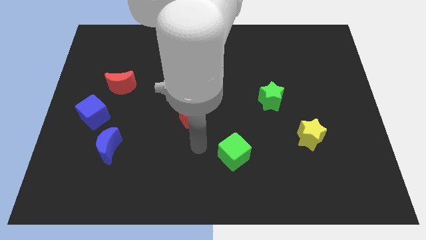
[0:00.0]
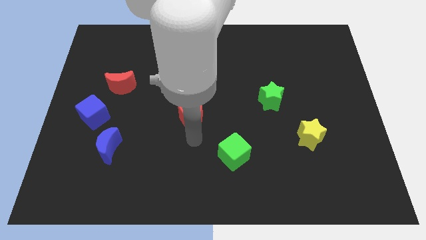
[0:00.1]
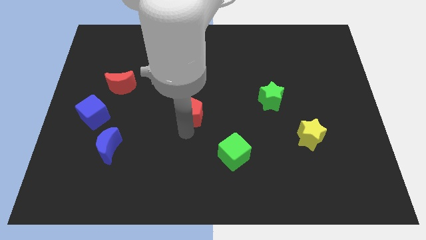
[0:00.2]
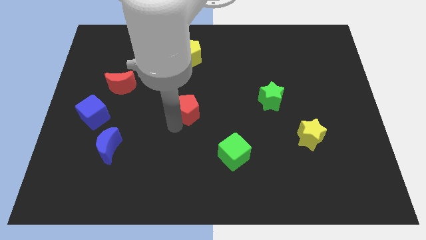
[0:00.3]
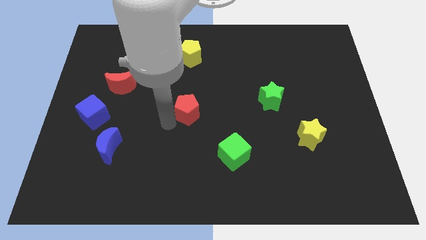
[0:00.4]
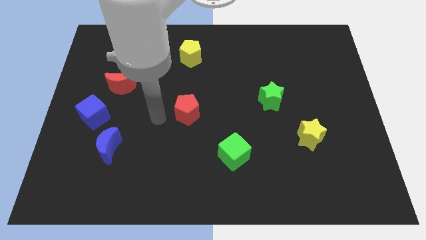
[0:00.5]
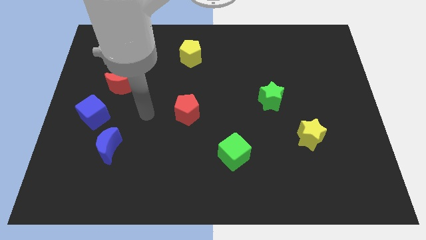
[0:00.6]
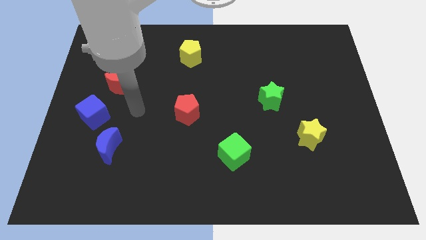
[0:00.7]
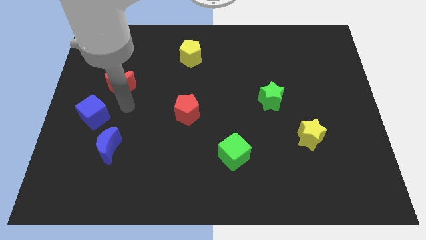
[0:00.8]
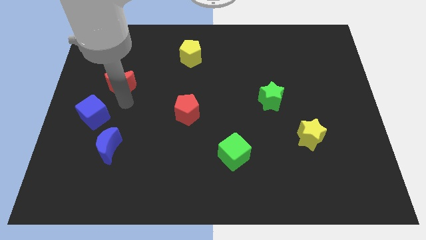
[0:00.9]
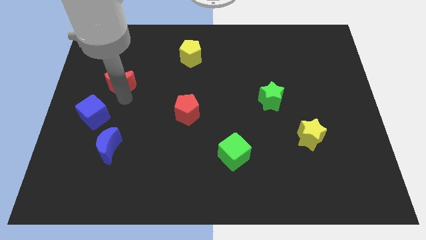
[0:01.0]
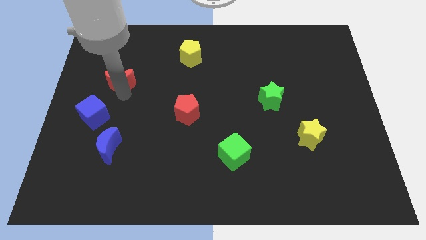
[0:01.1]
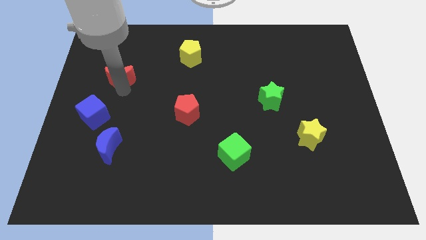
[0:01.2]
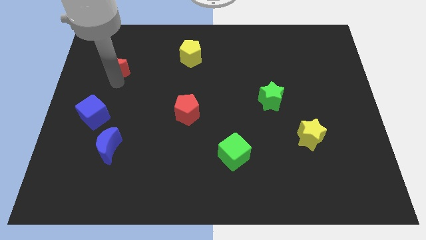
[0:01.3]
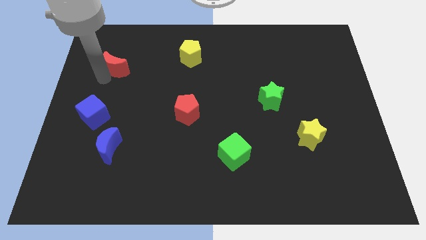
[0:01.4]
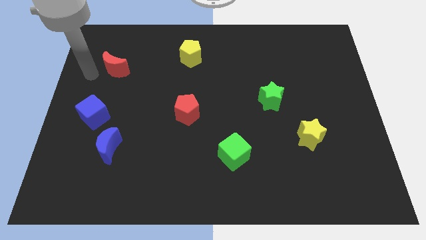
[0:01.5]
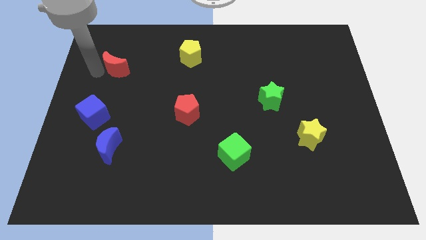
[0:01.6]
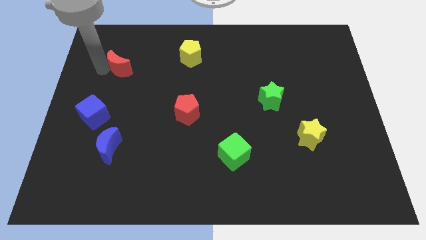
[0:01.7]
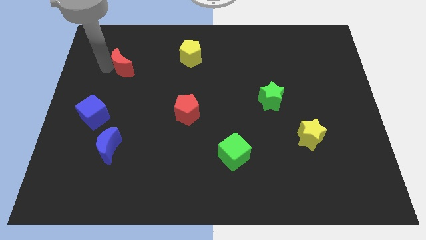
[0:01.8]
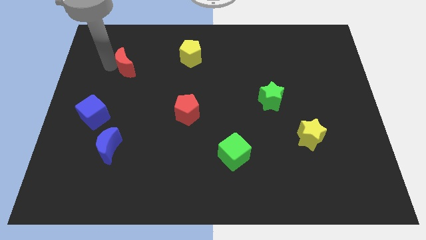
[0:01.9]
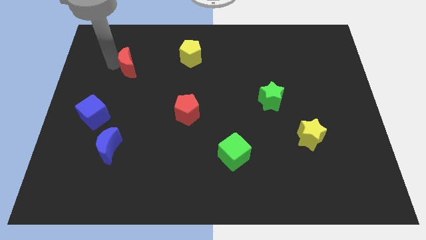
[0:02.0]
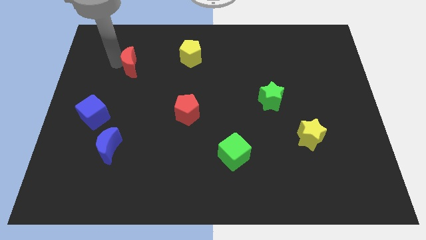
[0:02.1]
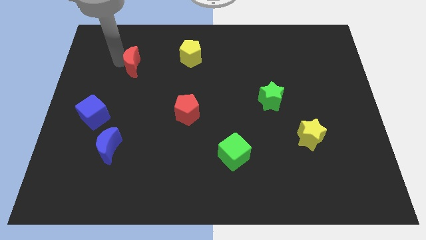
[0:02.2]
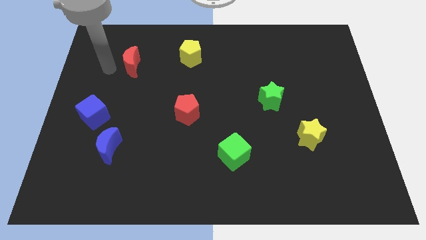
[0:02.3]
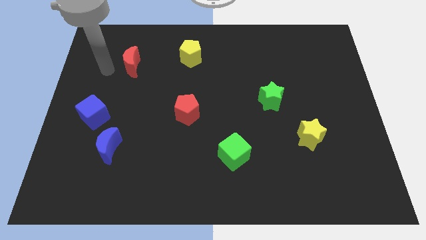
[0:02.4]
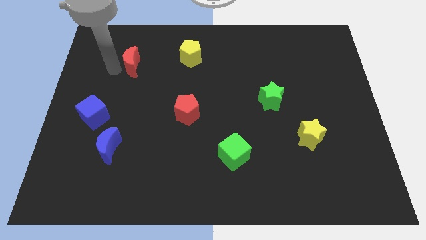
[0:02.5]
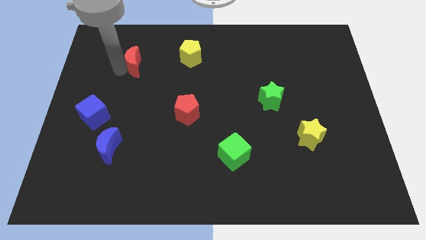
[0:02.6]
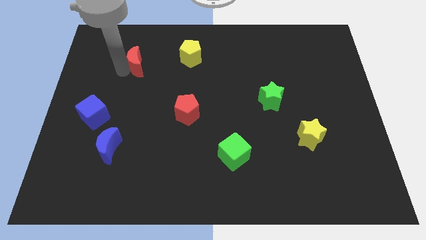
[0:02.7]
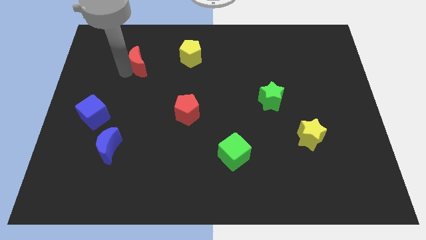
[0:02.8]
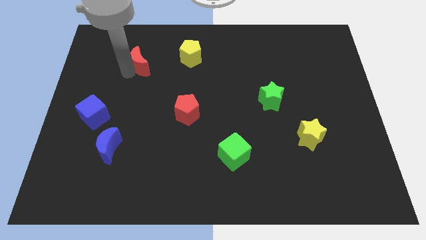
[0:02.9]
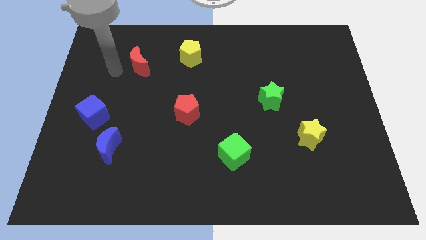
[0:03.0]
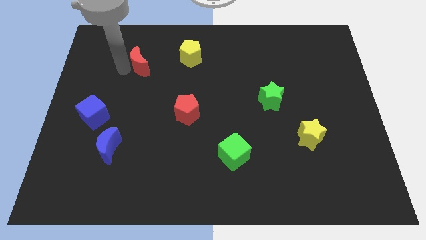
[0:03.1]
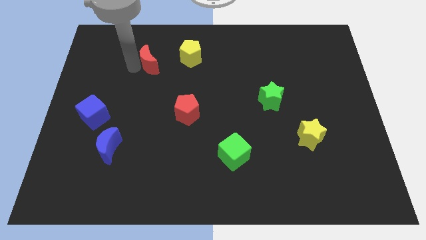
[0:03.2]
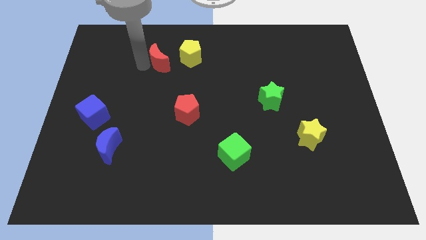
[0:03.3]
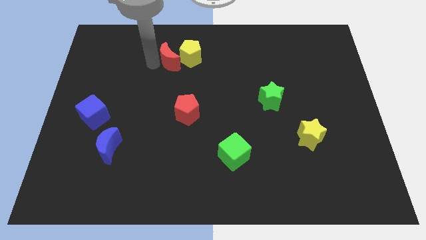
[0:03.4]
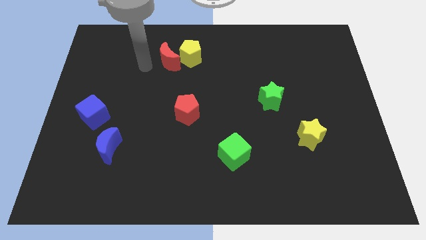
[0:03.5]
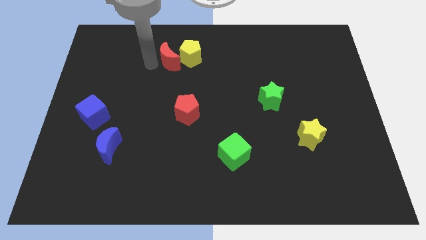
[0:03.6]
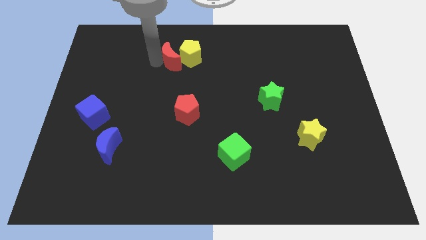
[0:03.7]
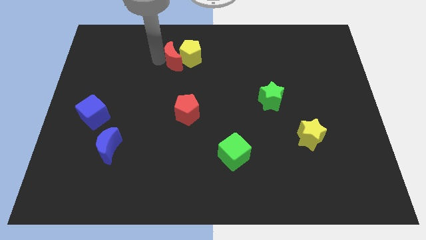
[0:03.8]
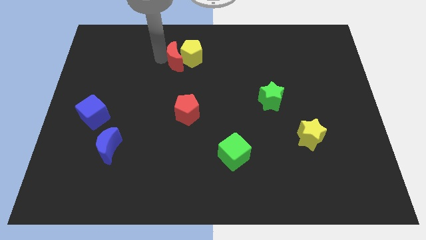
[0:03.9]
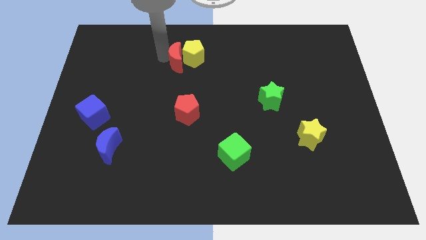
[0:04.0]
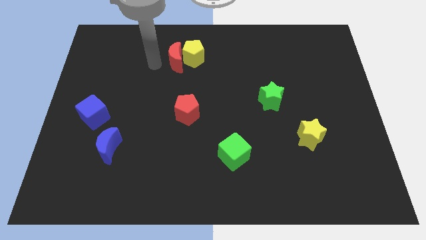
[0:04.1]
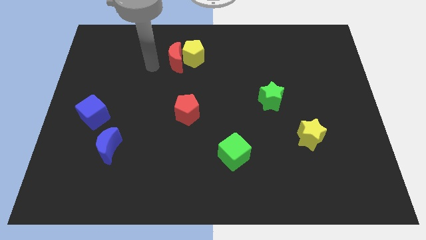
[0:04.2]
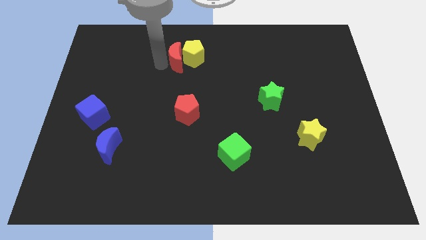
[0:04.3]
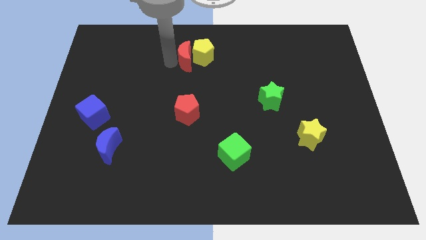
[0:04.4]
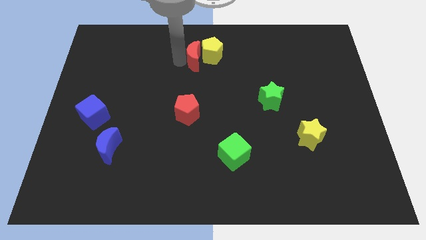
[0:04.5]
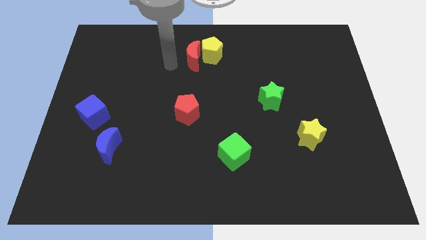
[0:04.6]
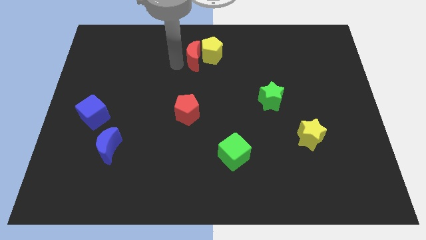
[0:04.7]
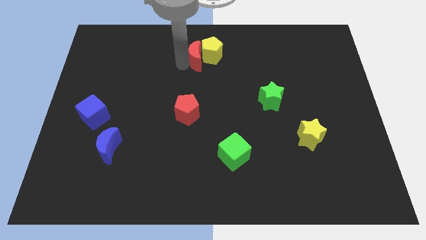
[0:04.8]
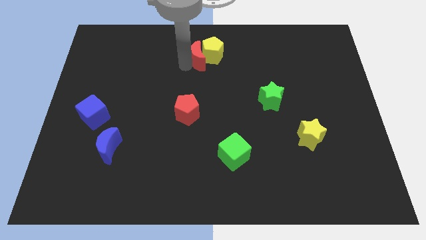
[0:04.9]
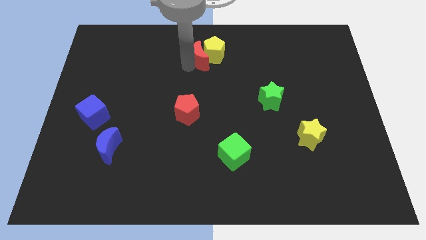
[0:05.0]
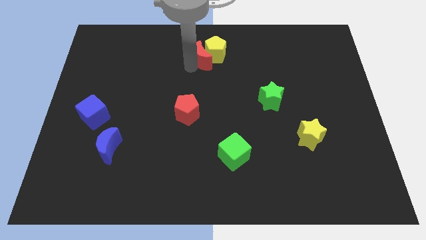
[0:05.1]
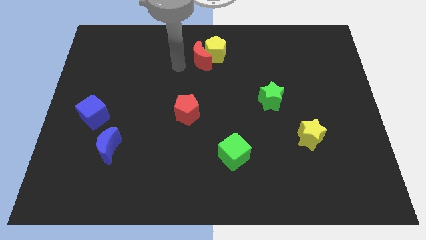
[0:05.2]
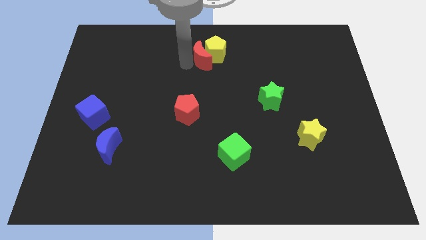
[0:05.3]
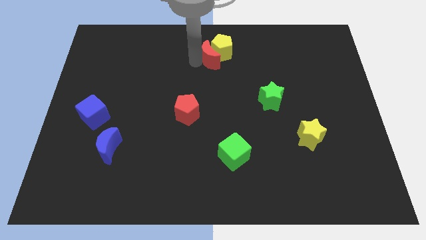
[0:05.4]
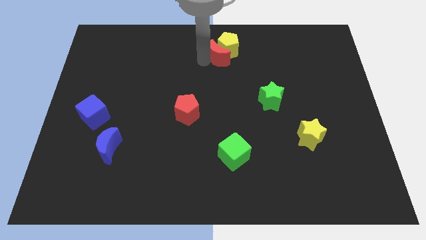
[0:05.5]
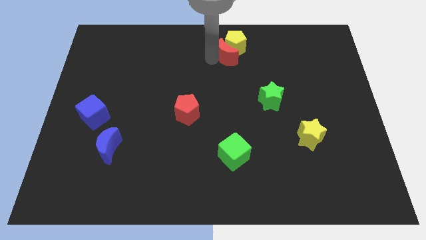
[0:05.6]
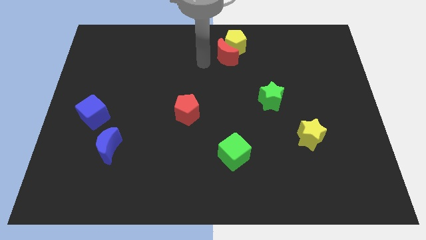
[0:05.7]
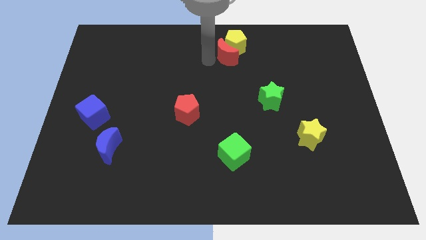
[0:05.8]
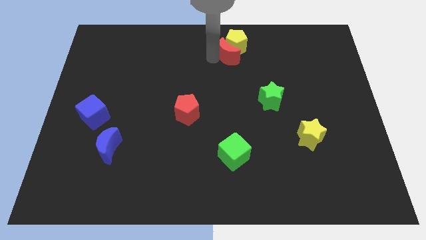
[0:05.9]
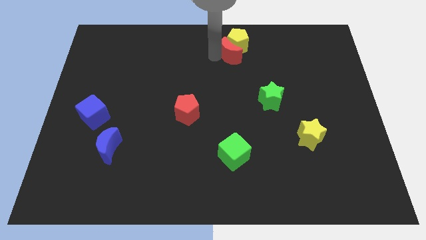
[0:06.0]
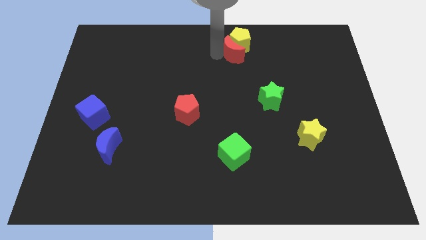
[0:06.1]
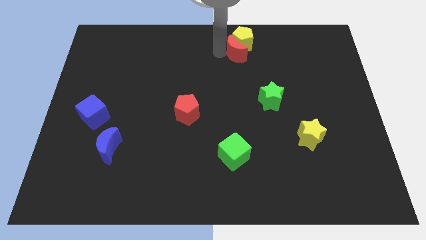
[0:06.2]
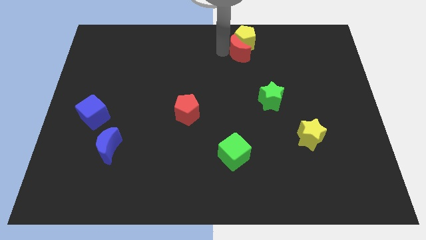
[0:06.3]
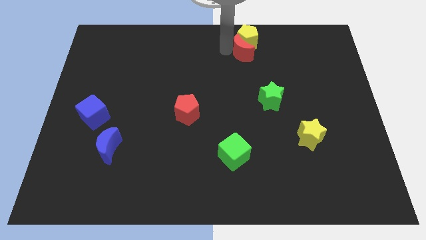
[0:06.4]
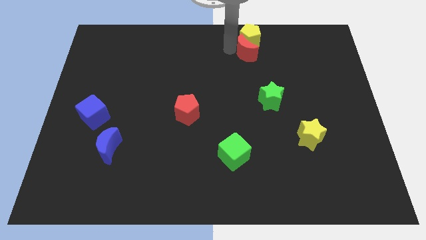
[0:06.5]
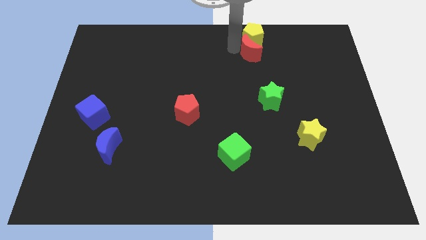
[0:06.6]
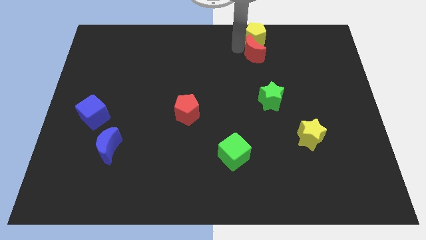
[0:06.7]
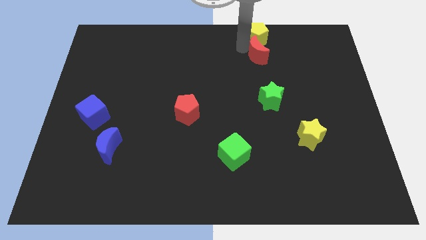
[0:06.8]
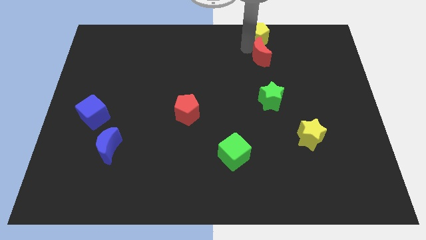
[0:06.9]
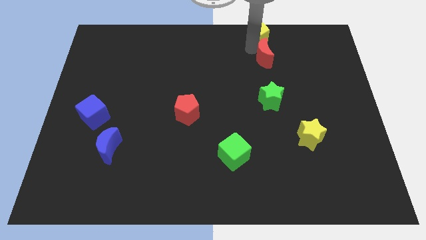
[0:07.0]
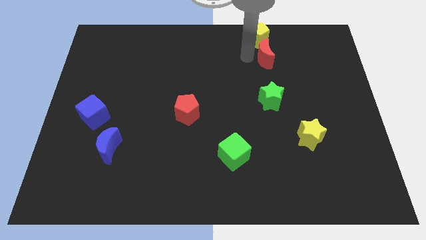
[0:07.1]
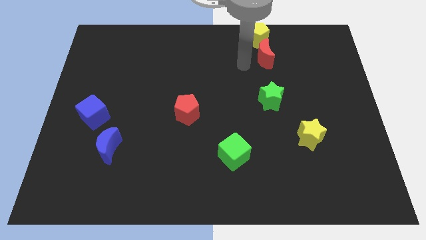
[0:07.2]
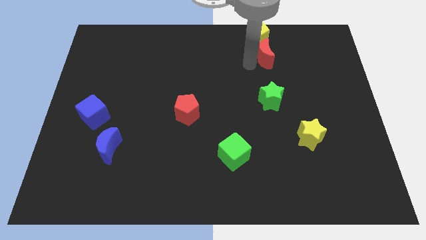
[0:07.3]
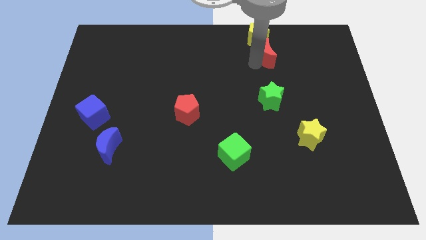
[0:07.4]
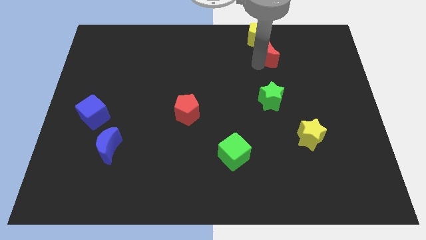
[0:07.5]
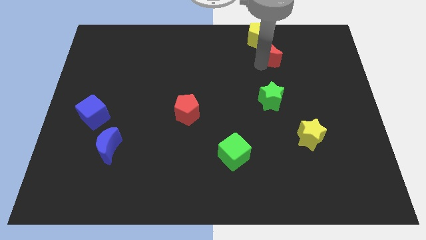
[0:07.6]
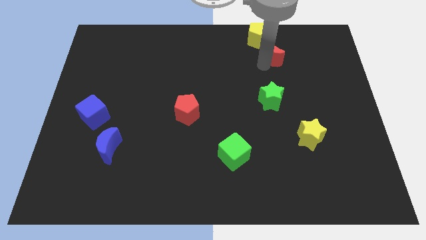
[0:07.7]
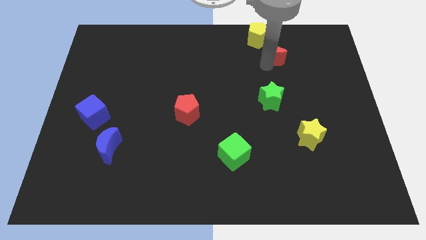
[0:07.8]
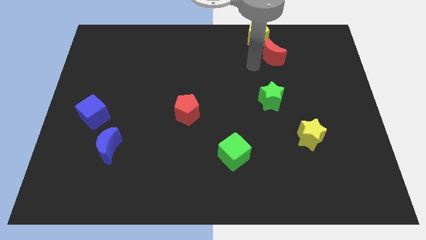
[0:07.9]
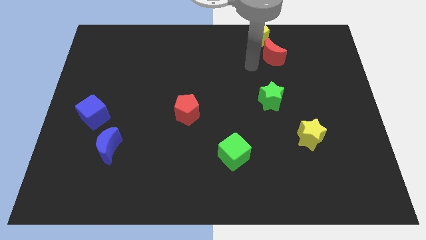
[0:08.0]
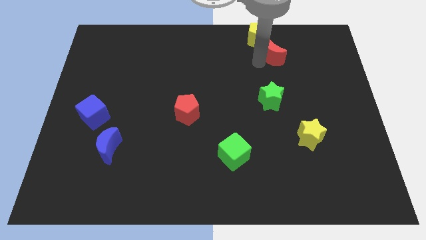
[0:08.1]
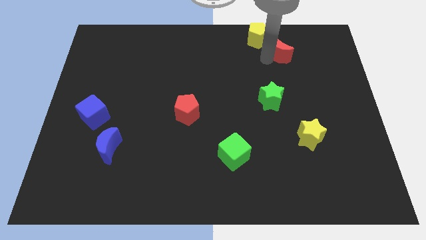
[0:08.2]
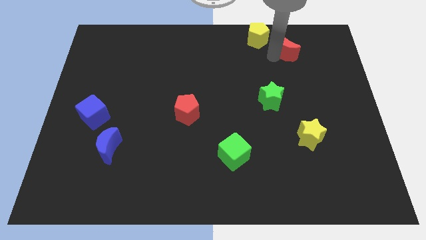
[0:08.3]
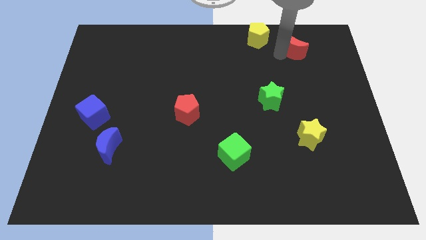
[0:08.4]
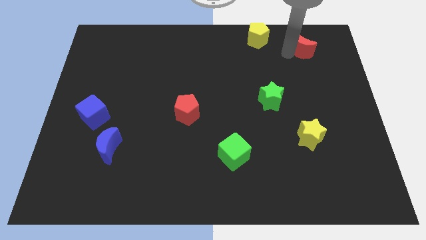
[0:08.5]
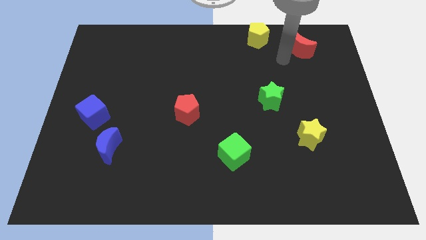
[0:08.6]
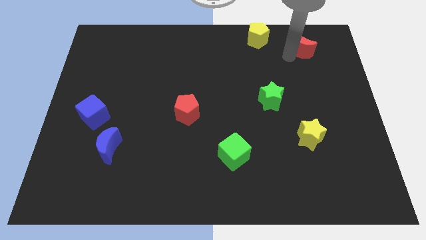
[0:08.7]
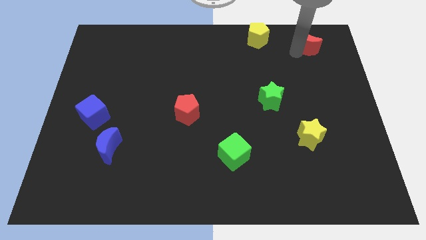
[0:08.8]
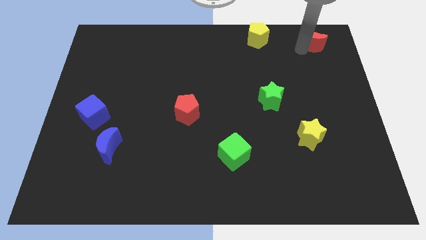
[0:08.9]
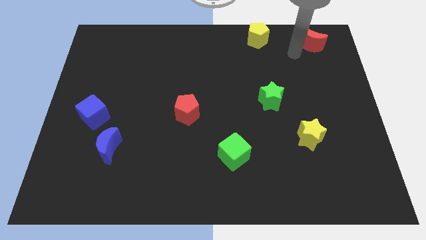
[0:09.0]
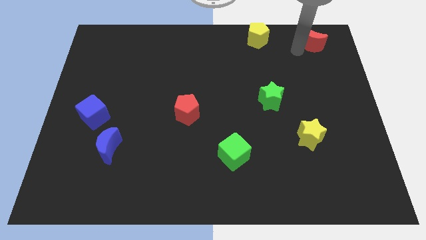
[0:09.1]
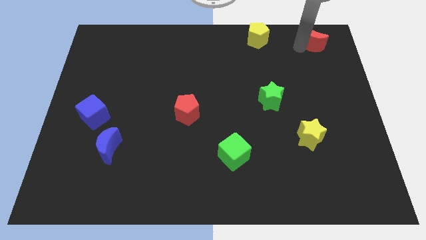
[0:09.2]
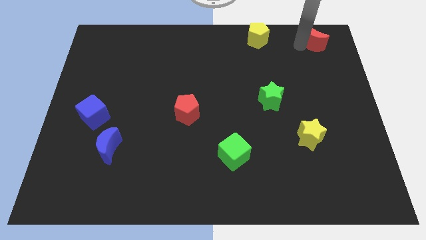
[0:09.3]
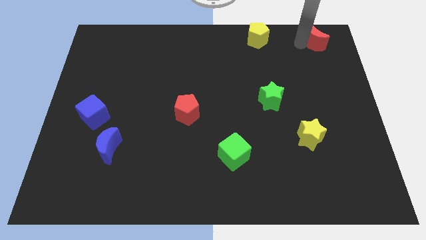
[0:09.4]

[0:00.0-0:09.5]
put the red moon to the top right of the board
